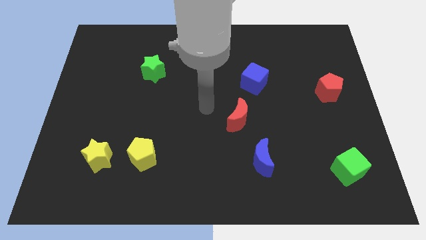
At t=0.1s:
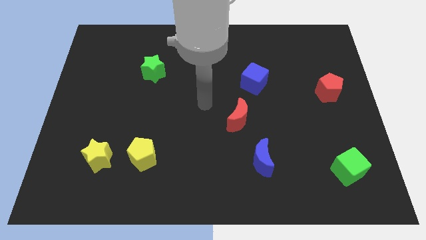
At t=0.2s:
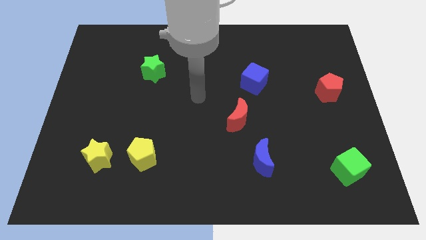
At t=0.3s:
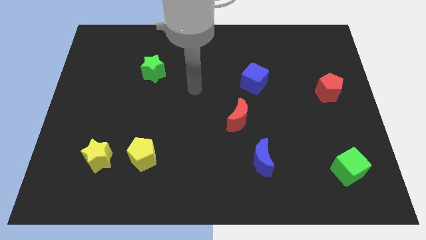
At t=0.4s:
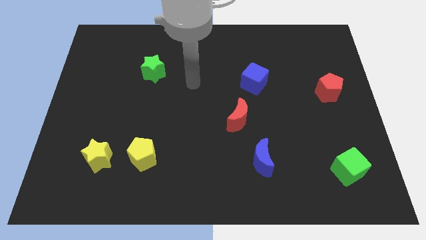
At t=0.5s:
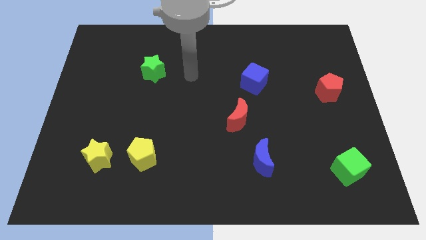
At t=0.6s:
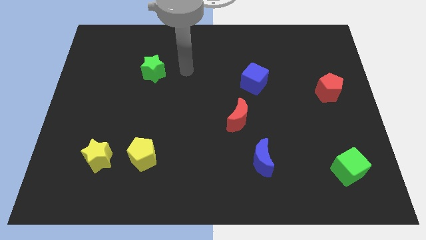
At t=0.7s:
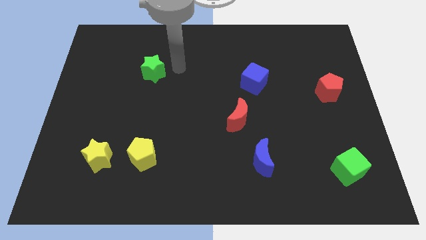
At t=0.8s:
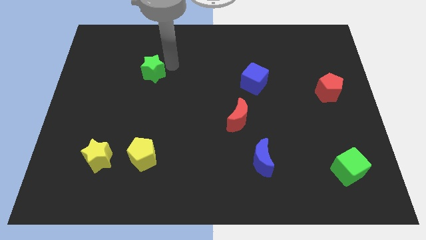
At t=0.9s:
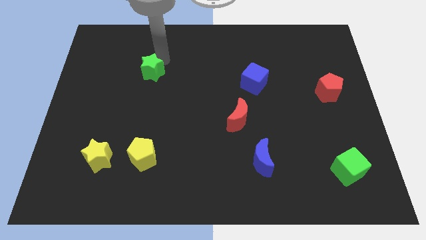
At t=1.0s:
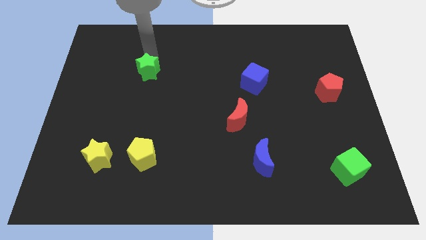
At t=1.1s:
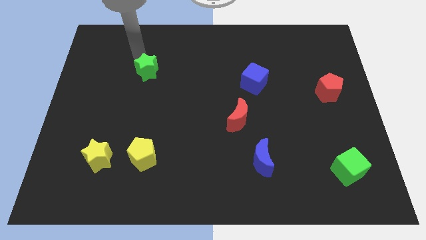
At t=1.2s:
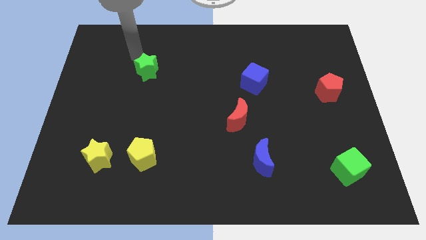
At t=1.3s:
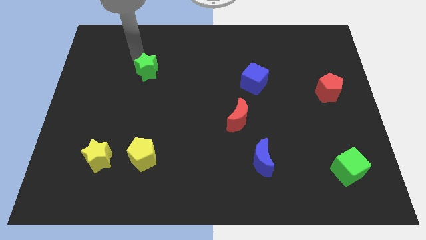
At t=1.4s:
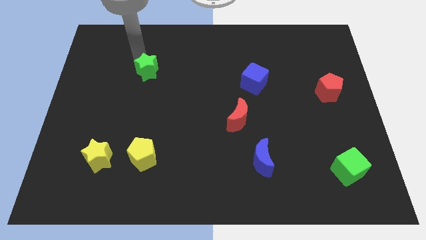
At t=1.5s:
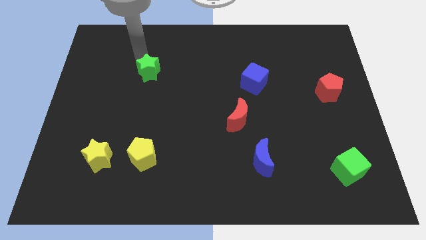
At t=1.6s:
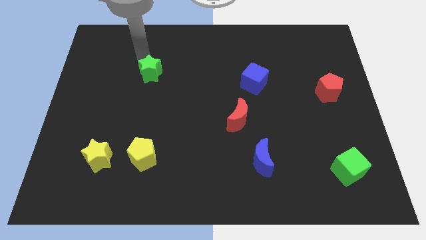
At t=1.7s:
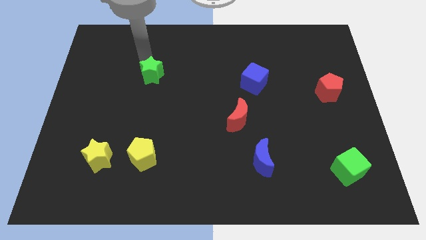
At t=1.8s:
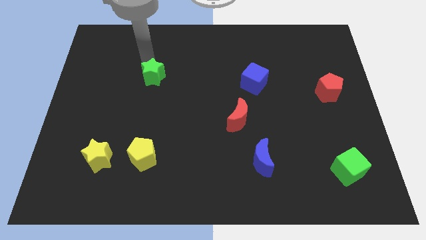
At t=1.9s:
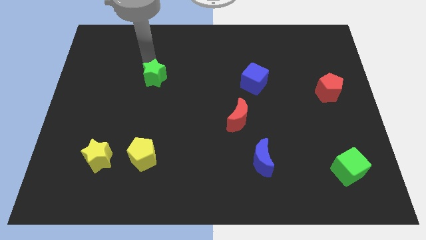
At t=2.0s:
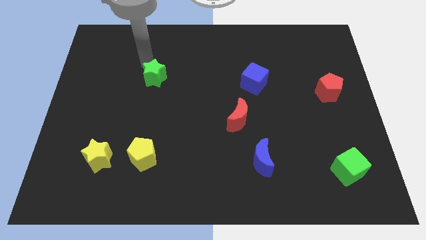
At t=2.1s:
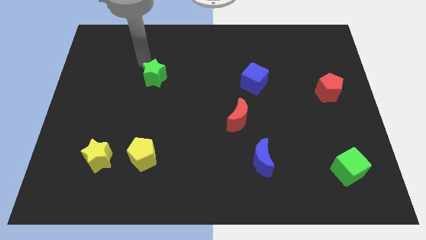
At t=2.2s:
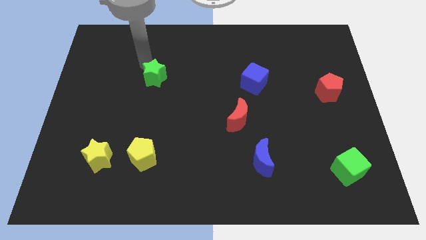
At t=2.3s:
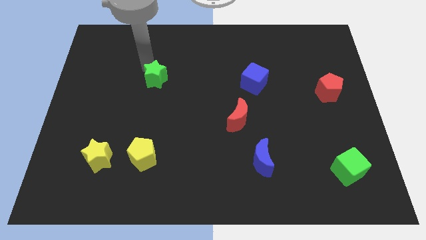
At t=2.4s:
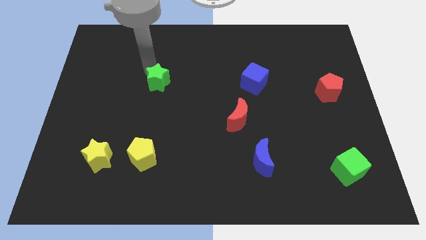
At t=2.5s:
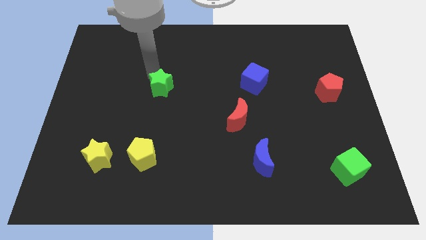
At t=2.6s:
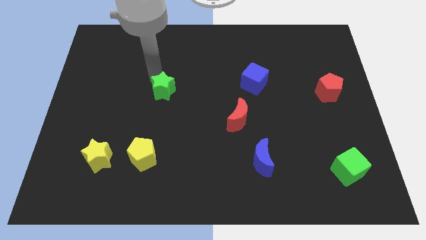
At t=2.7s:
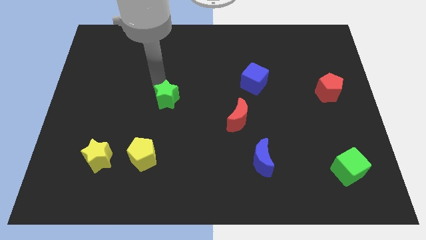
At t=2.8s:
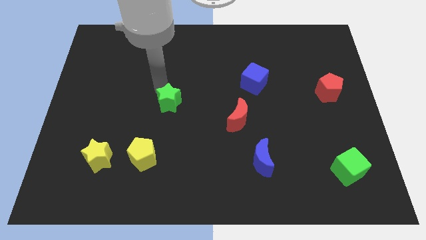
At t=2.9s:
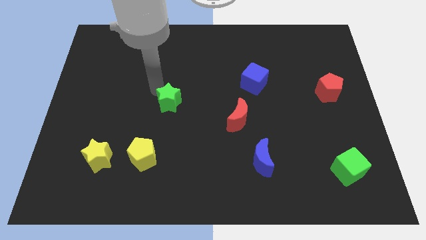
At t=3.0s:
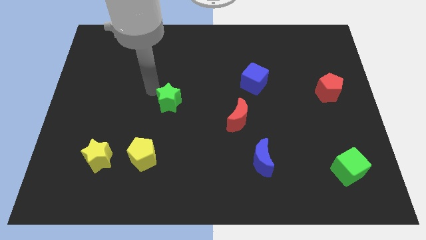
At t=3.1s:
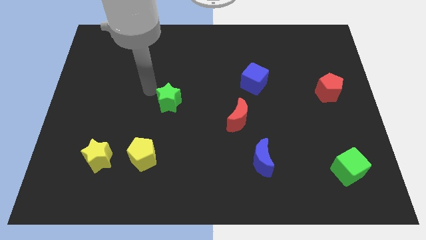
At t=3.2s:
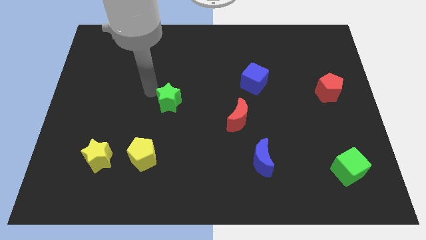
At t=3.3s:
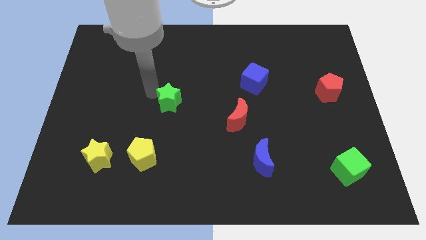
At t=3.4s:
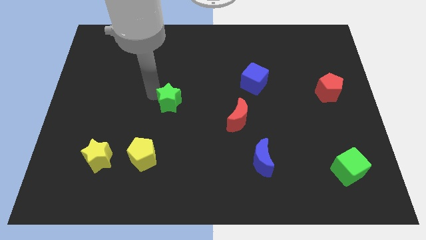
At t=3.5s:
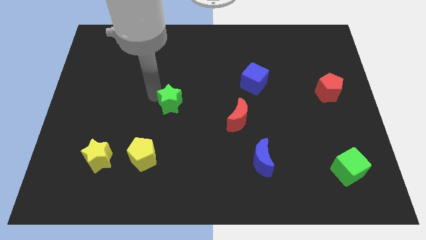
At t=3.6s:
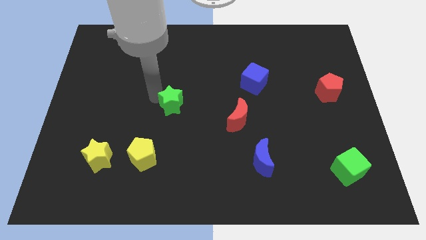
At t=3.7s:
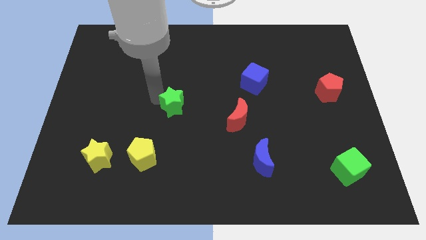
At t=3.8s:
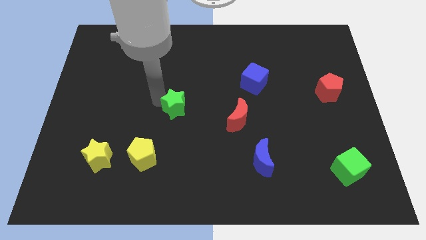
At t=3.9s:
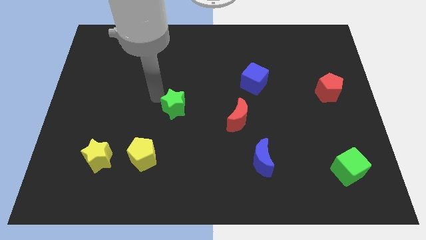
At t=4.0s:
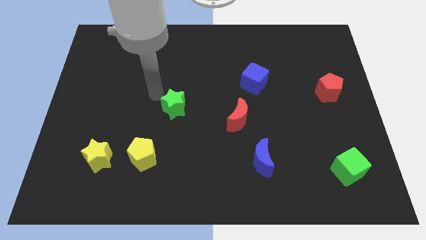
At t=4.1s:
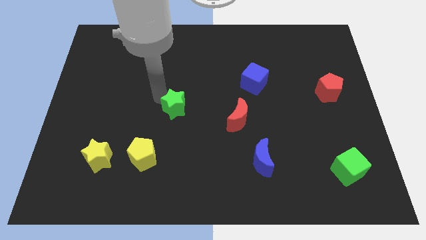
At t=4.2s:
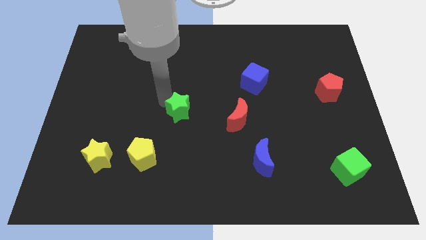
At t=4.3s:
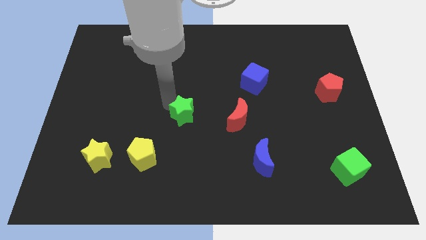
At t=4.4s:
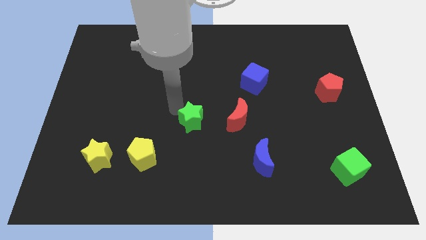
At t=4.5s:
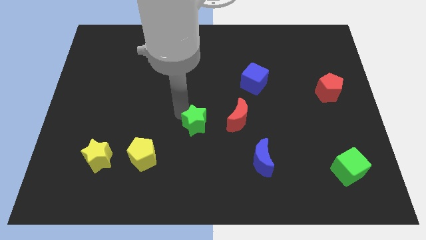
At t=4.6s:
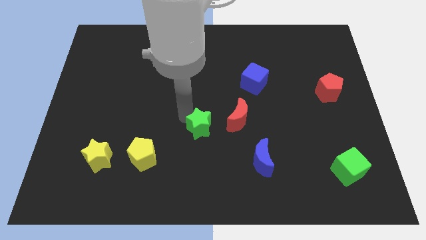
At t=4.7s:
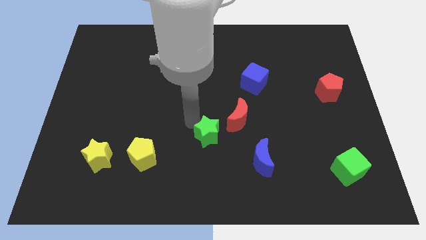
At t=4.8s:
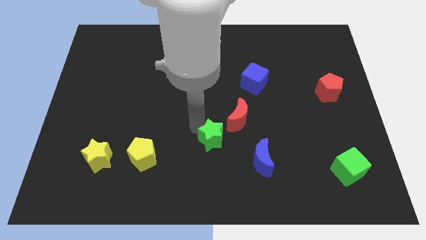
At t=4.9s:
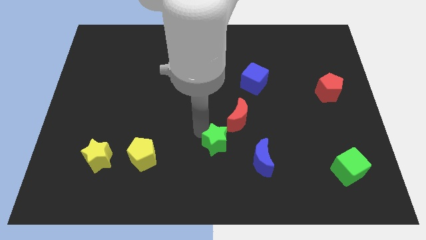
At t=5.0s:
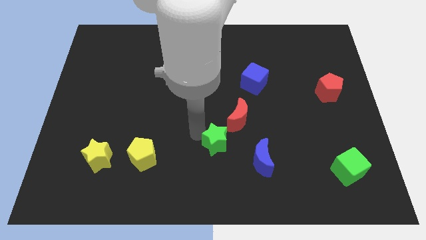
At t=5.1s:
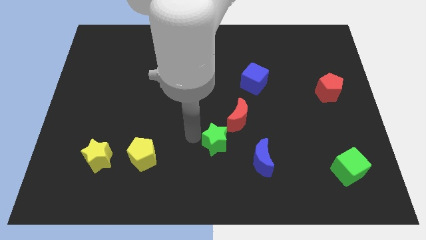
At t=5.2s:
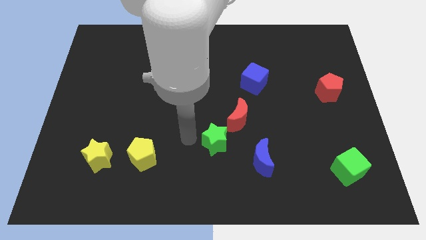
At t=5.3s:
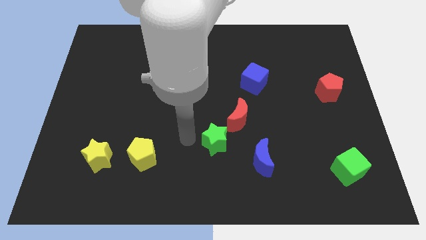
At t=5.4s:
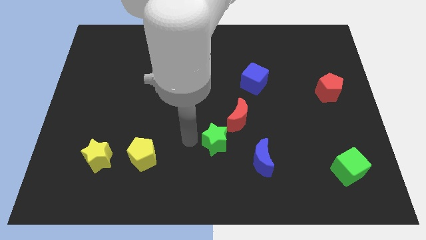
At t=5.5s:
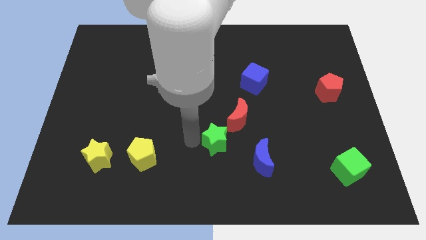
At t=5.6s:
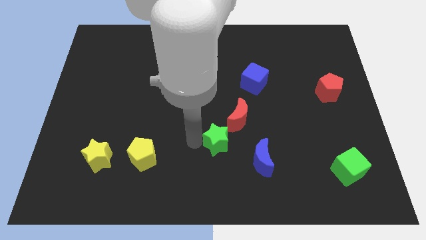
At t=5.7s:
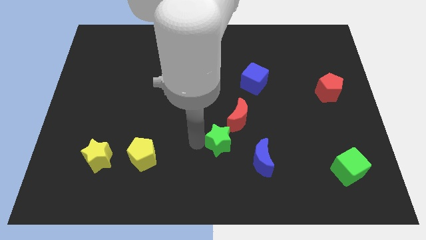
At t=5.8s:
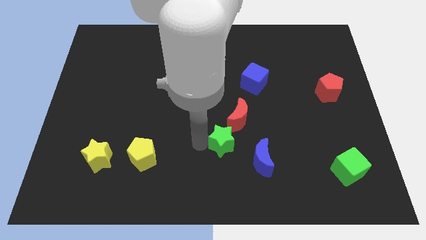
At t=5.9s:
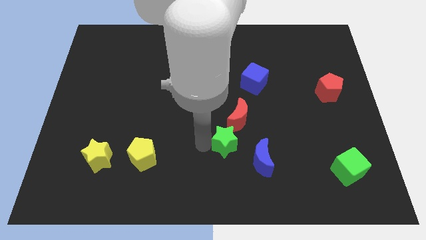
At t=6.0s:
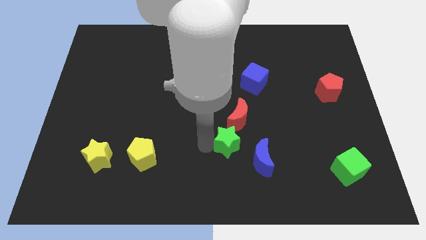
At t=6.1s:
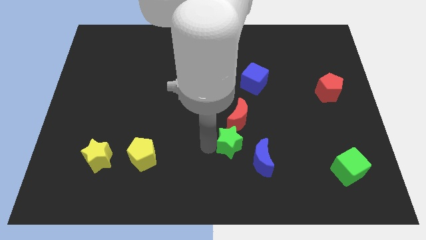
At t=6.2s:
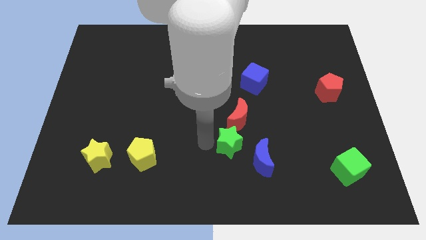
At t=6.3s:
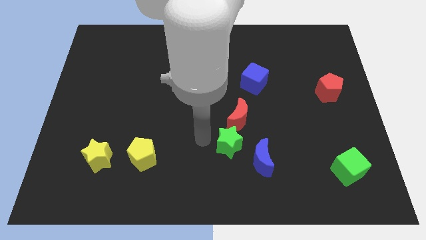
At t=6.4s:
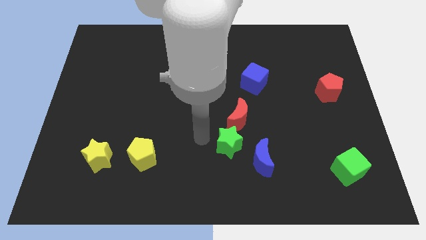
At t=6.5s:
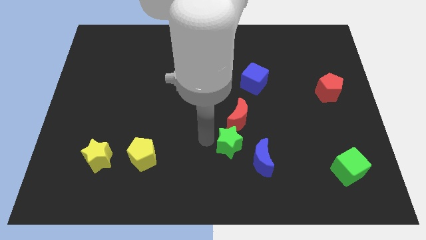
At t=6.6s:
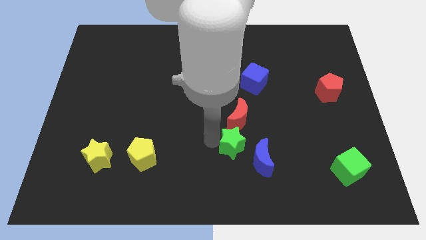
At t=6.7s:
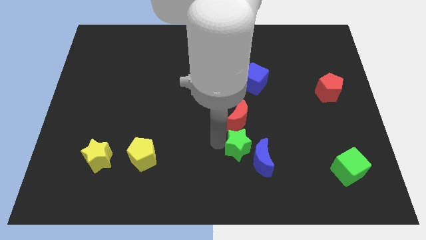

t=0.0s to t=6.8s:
put the green star to the blue moon

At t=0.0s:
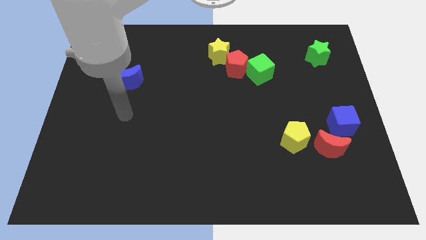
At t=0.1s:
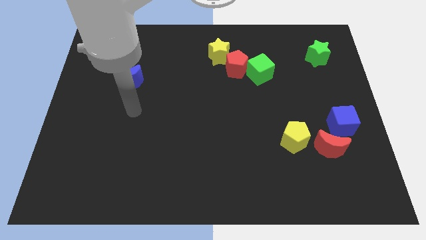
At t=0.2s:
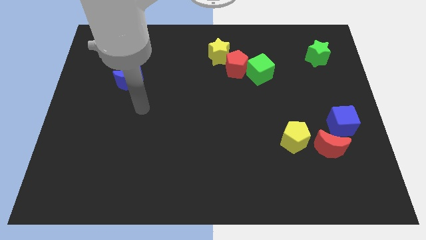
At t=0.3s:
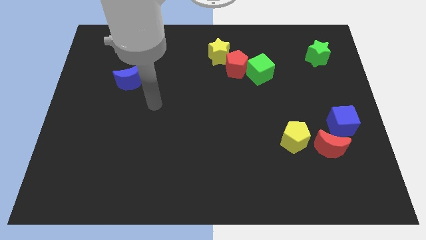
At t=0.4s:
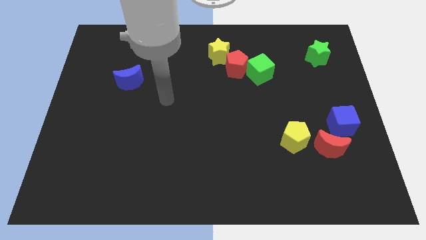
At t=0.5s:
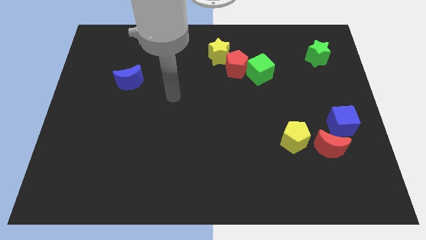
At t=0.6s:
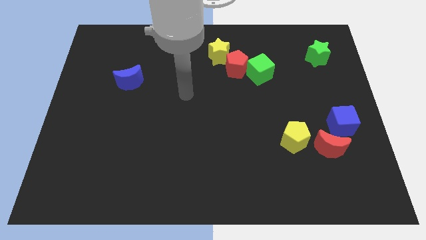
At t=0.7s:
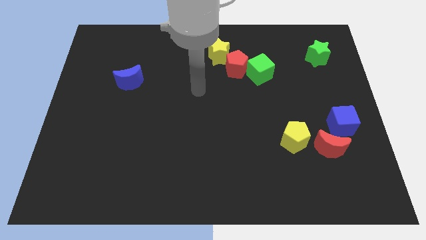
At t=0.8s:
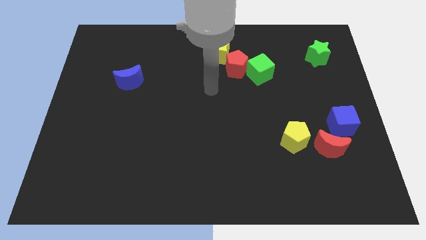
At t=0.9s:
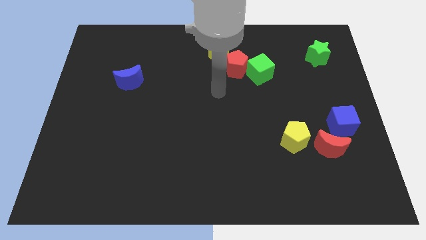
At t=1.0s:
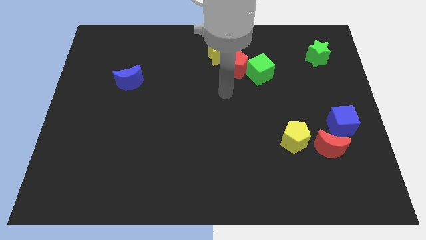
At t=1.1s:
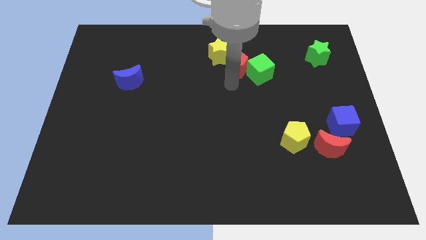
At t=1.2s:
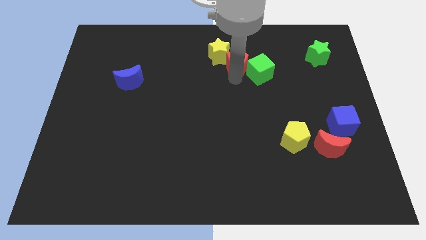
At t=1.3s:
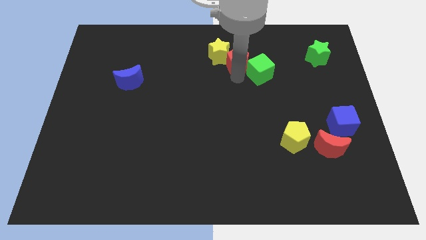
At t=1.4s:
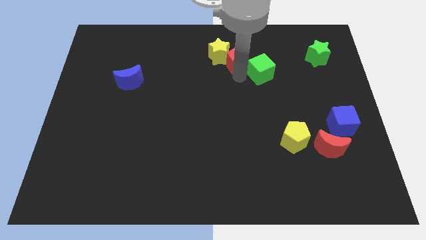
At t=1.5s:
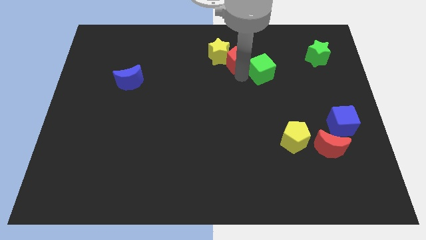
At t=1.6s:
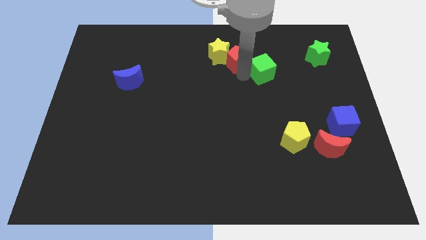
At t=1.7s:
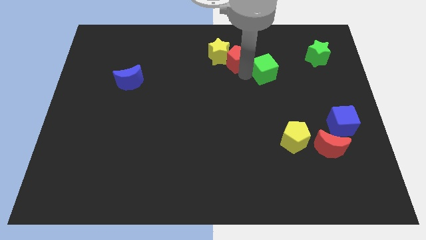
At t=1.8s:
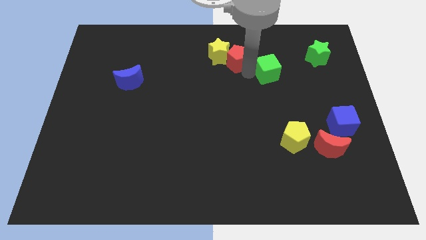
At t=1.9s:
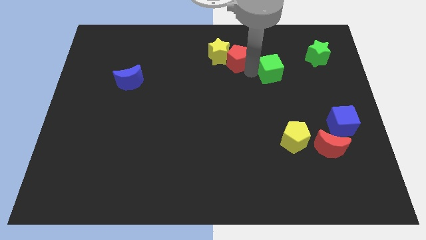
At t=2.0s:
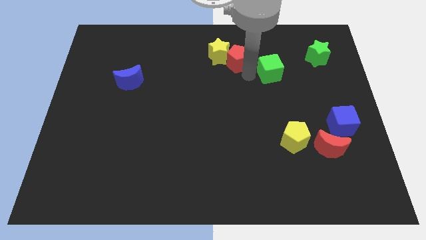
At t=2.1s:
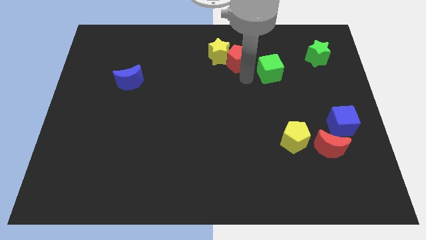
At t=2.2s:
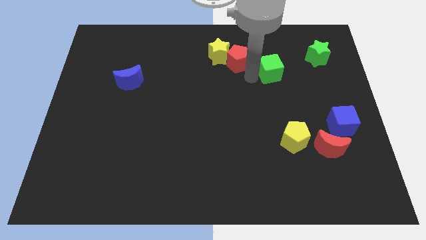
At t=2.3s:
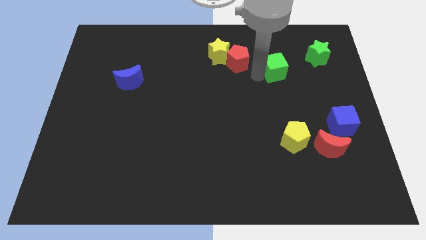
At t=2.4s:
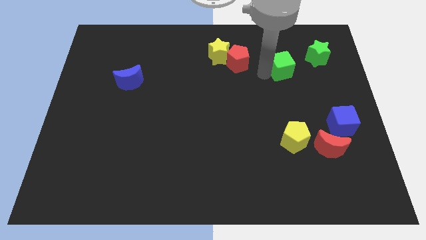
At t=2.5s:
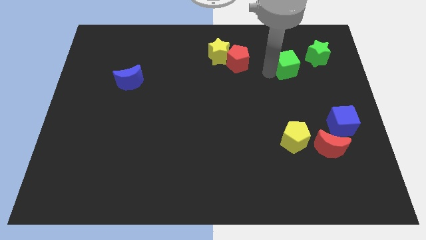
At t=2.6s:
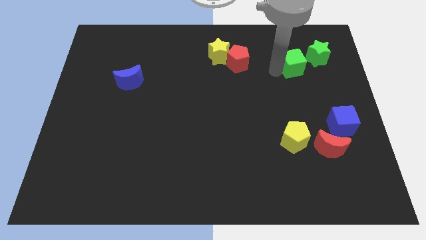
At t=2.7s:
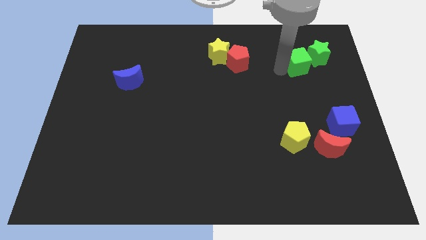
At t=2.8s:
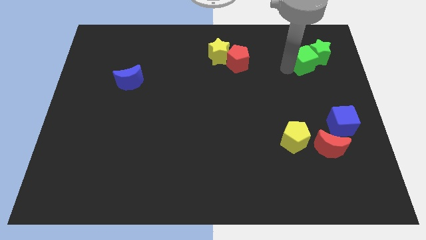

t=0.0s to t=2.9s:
push the green cube towards the green star
